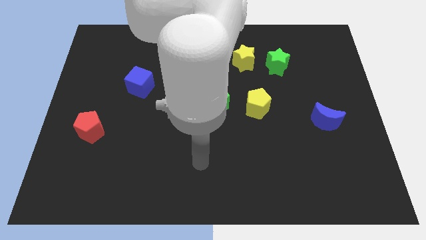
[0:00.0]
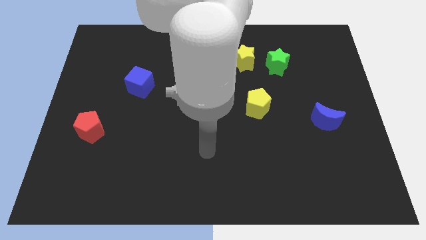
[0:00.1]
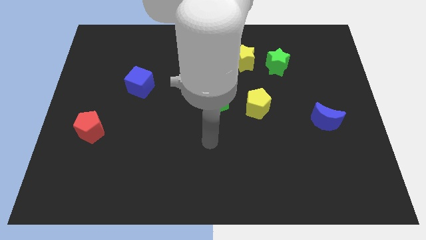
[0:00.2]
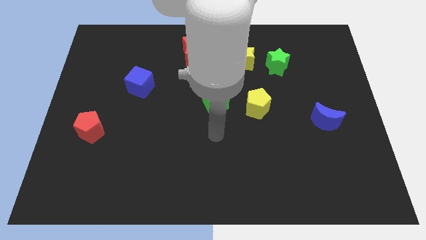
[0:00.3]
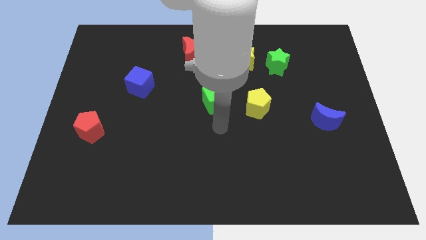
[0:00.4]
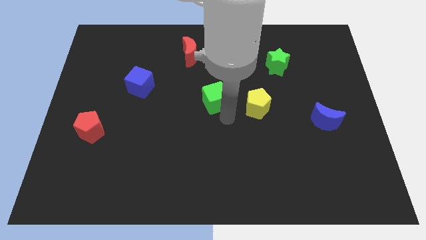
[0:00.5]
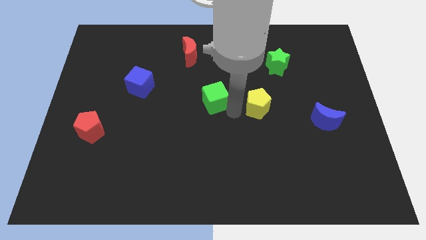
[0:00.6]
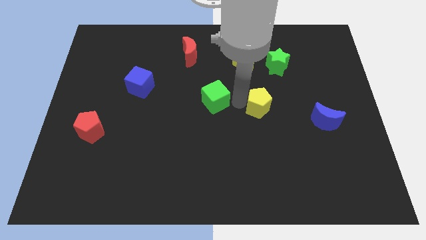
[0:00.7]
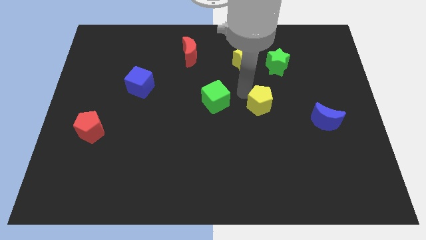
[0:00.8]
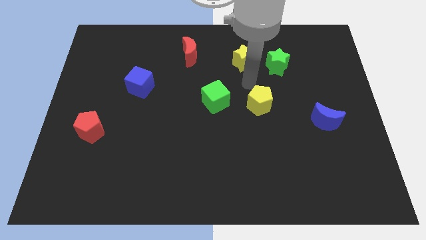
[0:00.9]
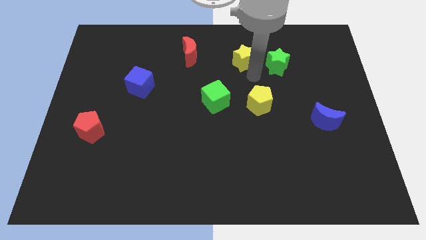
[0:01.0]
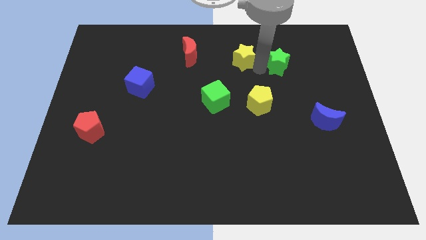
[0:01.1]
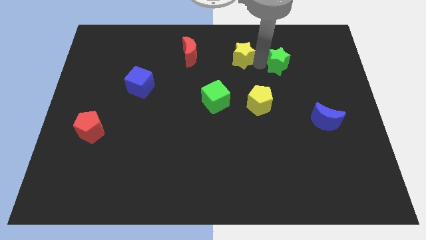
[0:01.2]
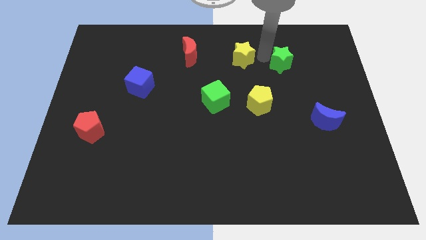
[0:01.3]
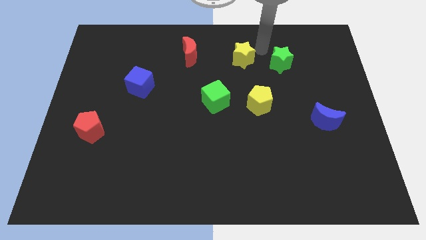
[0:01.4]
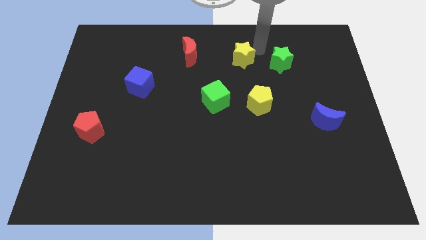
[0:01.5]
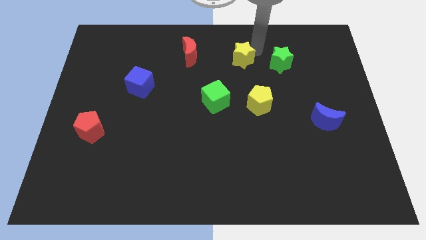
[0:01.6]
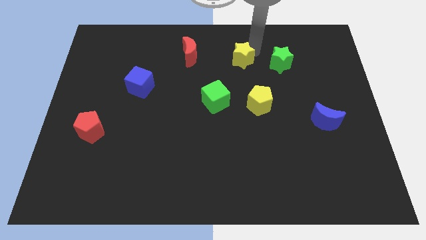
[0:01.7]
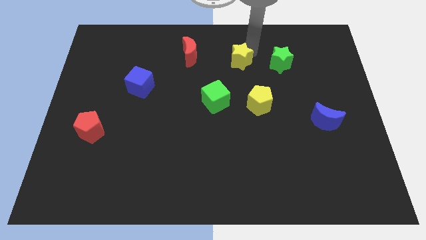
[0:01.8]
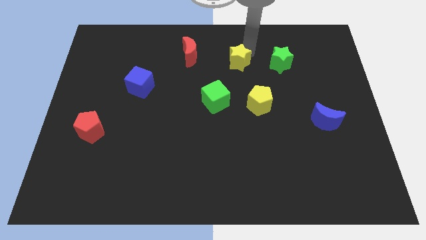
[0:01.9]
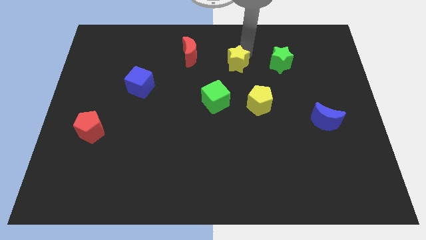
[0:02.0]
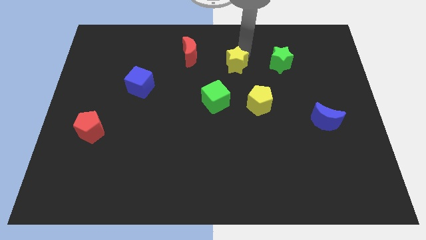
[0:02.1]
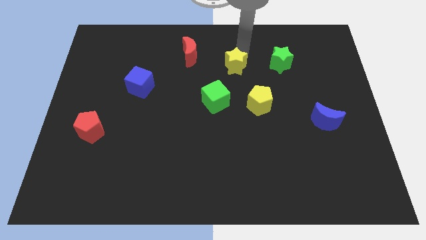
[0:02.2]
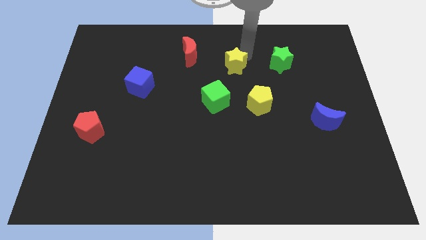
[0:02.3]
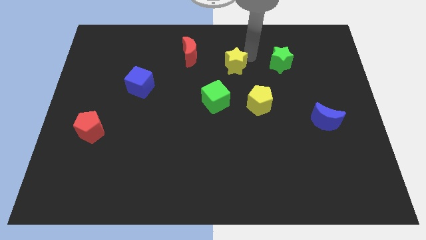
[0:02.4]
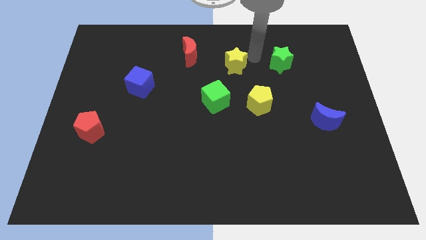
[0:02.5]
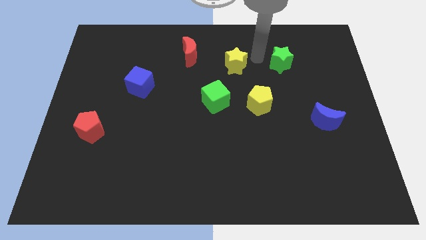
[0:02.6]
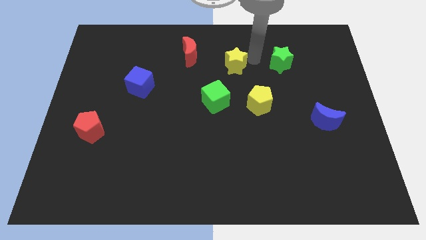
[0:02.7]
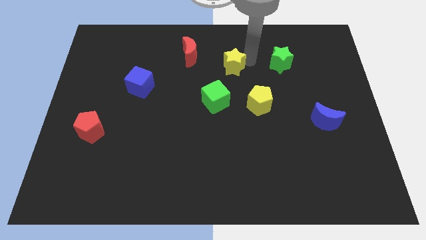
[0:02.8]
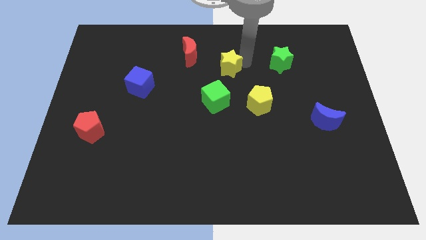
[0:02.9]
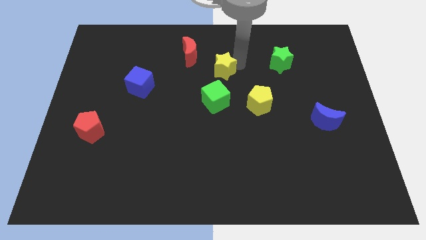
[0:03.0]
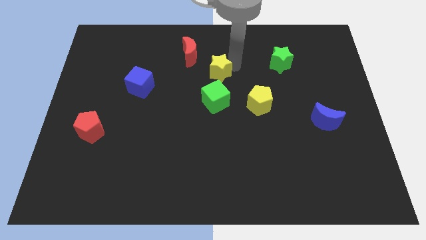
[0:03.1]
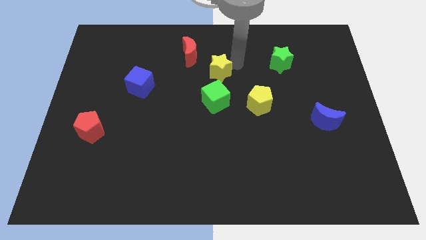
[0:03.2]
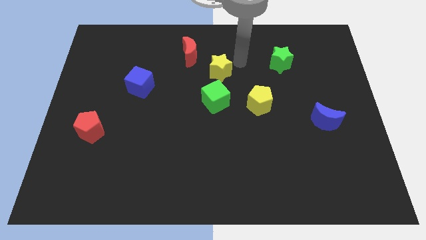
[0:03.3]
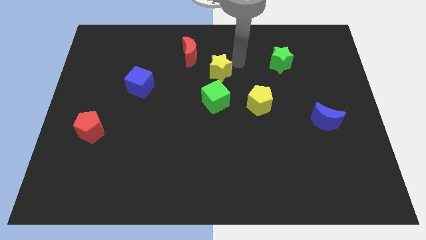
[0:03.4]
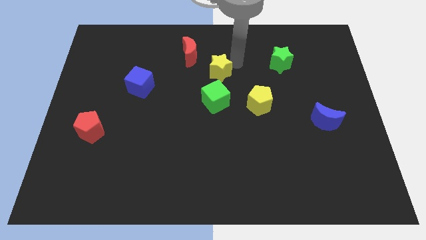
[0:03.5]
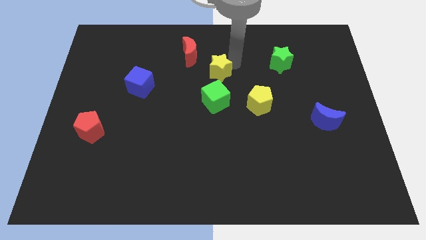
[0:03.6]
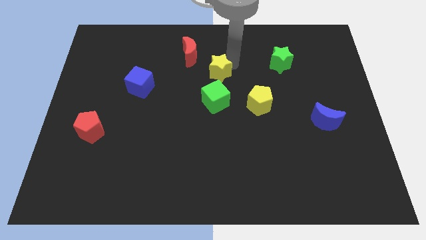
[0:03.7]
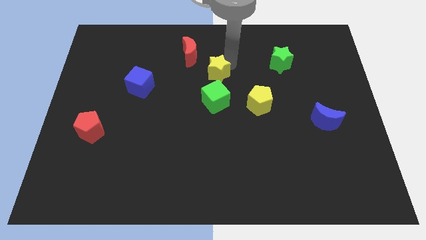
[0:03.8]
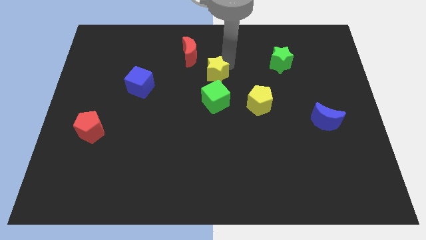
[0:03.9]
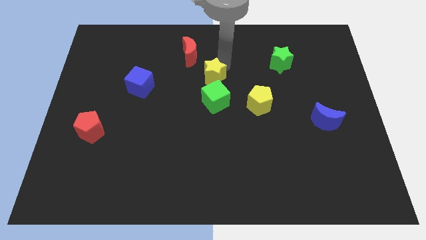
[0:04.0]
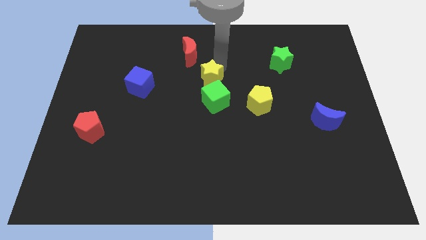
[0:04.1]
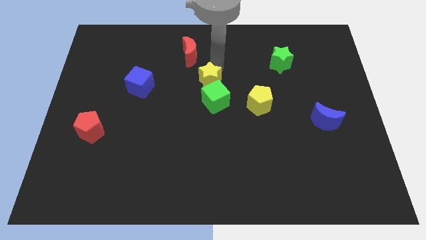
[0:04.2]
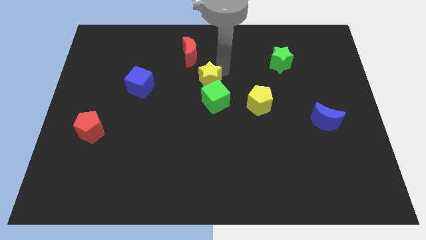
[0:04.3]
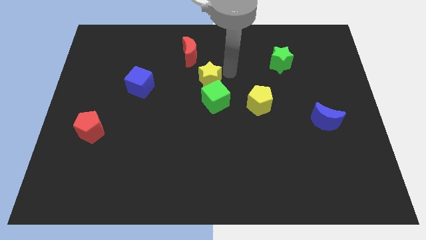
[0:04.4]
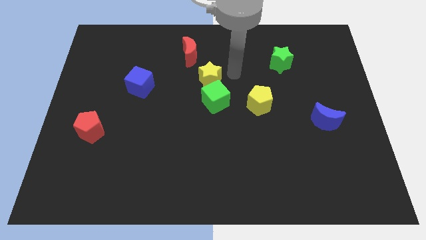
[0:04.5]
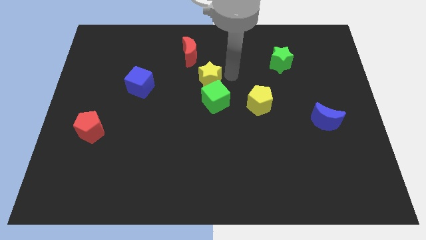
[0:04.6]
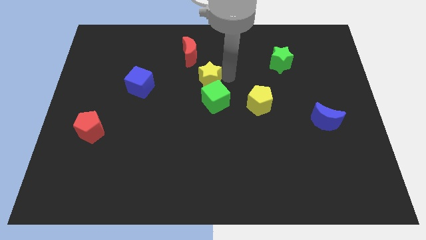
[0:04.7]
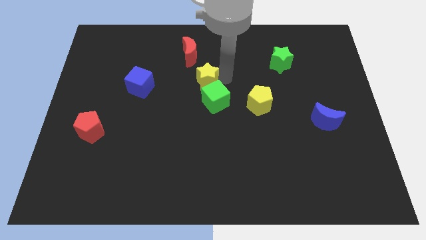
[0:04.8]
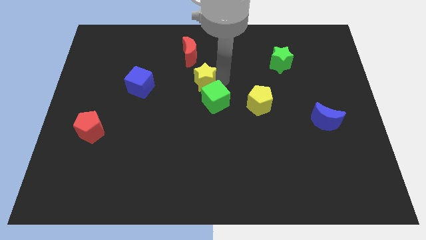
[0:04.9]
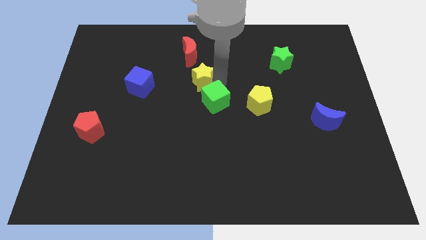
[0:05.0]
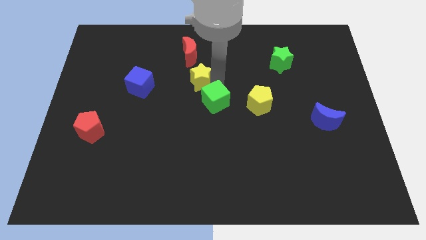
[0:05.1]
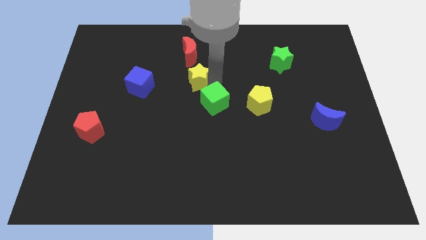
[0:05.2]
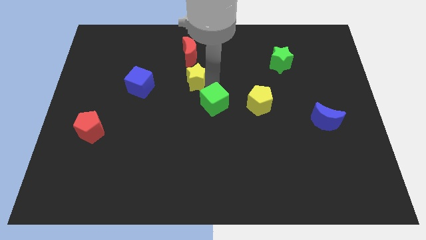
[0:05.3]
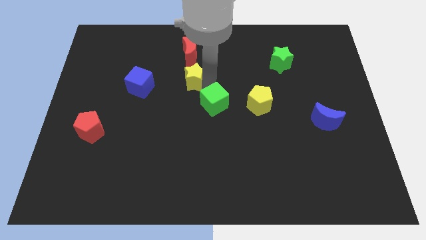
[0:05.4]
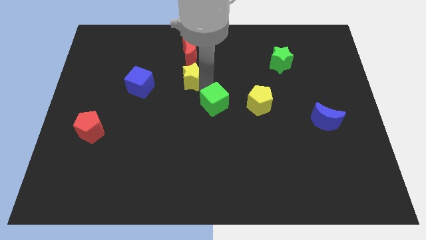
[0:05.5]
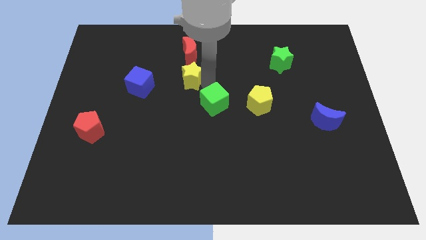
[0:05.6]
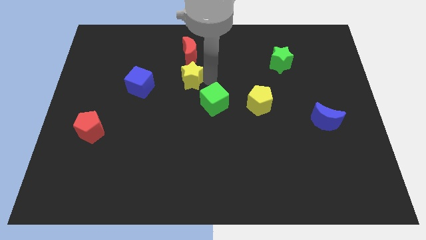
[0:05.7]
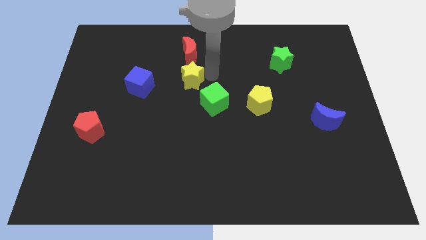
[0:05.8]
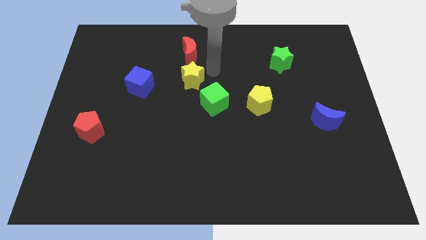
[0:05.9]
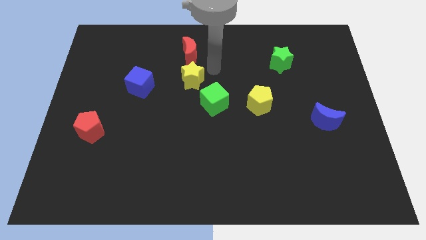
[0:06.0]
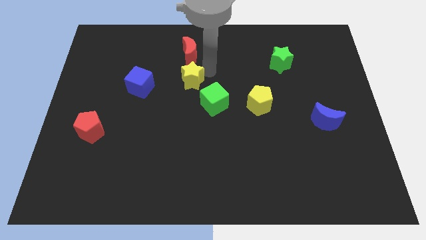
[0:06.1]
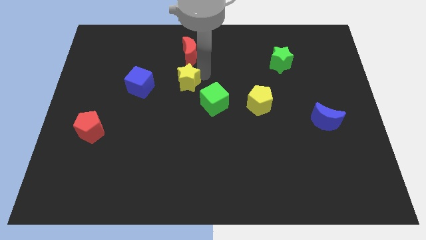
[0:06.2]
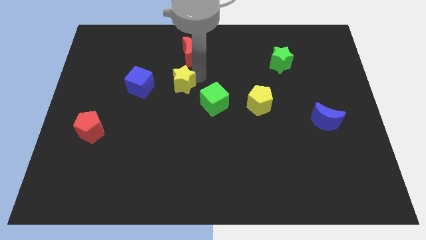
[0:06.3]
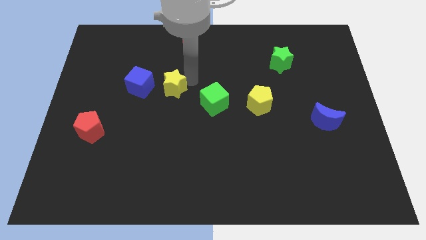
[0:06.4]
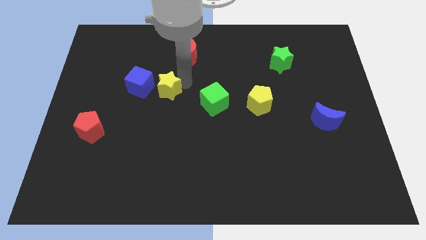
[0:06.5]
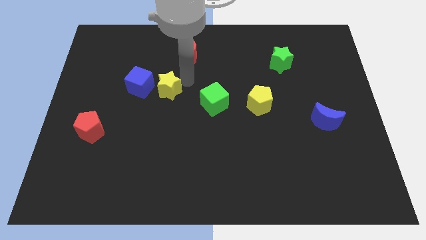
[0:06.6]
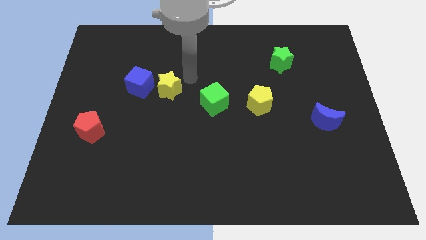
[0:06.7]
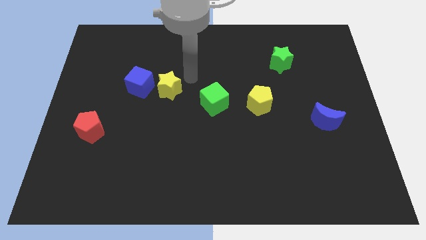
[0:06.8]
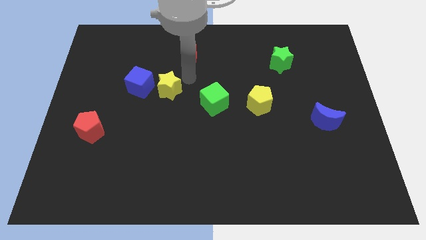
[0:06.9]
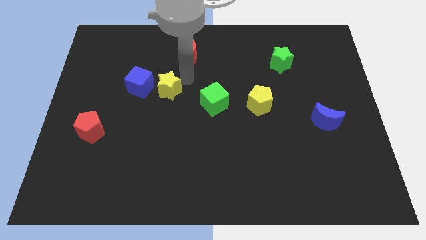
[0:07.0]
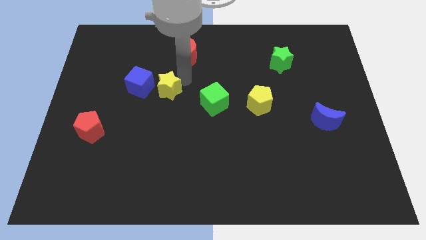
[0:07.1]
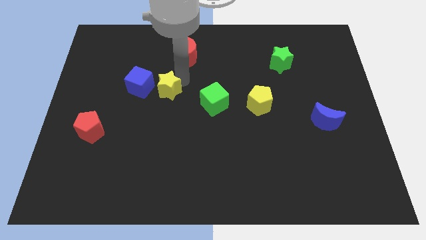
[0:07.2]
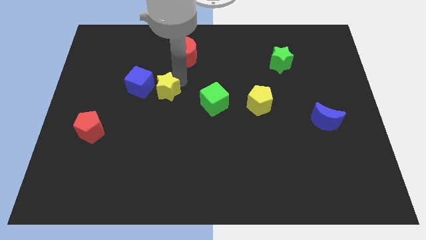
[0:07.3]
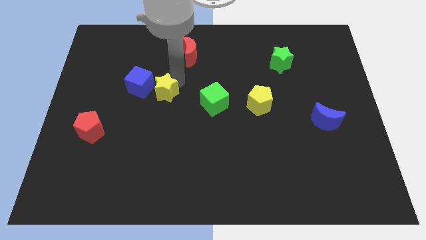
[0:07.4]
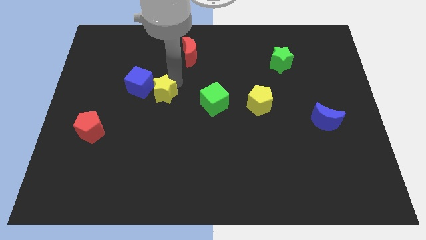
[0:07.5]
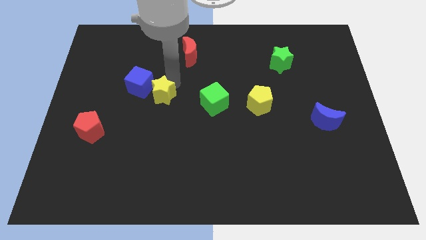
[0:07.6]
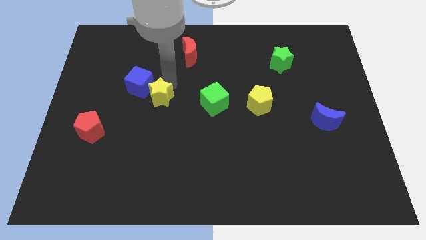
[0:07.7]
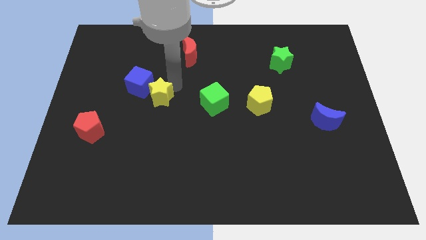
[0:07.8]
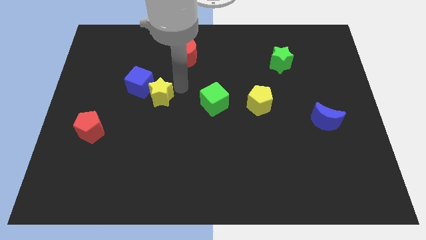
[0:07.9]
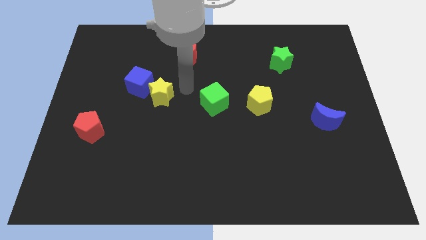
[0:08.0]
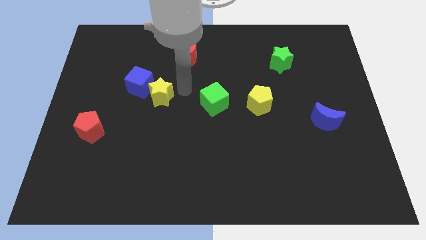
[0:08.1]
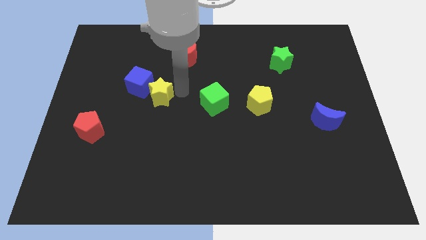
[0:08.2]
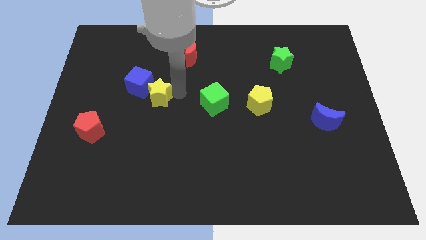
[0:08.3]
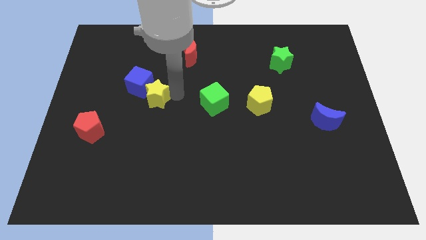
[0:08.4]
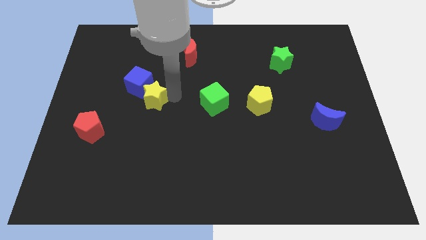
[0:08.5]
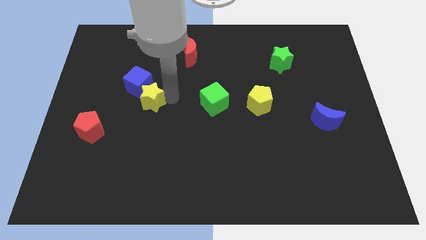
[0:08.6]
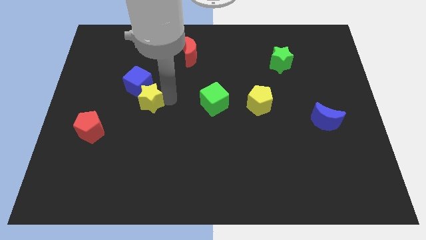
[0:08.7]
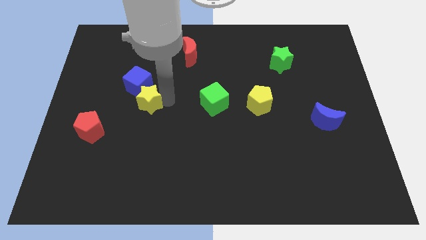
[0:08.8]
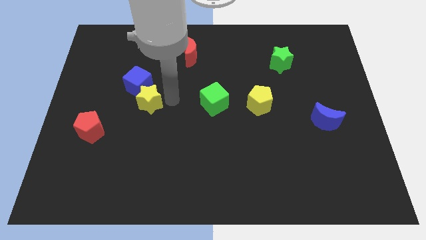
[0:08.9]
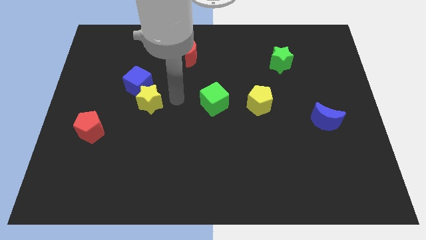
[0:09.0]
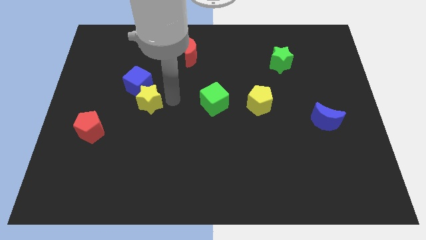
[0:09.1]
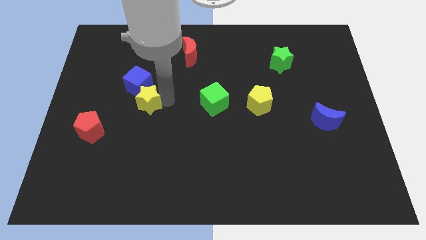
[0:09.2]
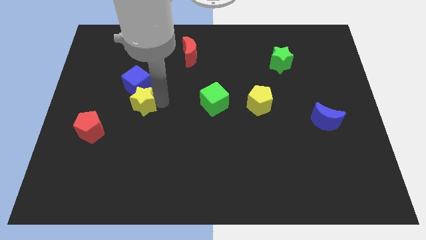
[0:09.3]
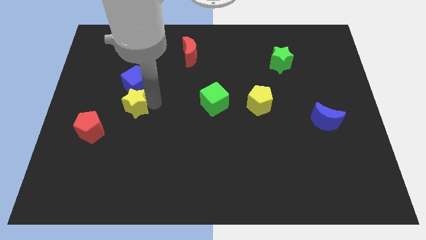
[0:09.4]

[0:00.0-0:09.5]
push the yellow star to the top right of the red pentagon
